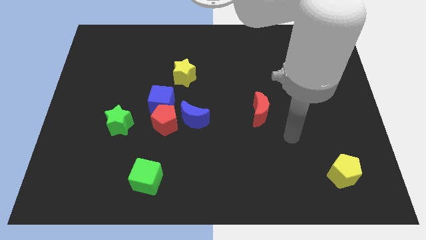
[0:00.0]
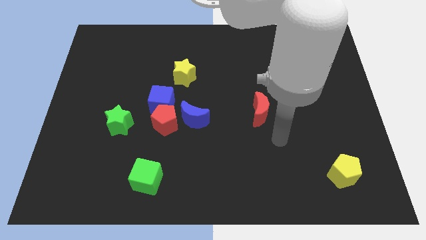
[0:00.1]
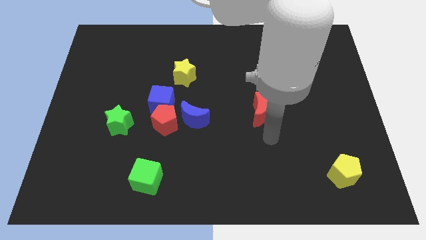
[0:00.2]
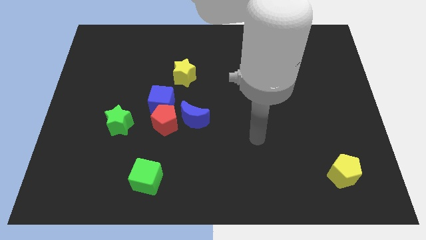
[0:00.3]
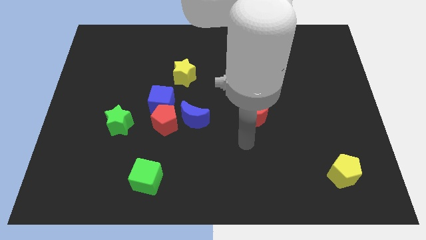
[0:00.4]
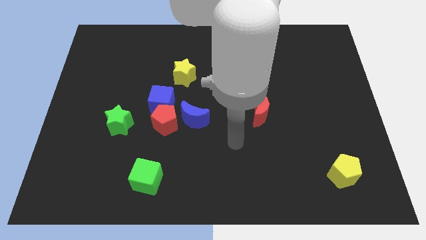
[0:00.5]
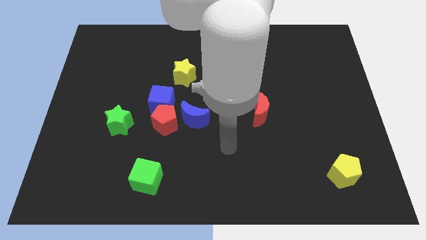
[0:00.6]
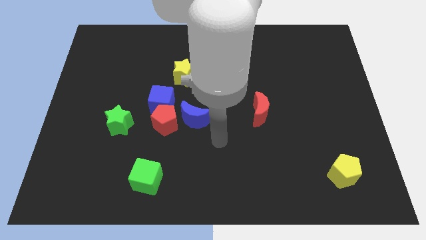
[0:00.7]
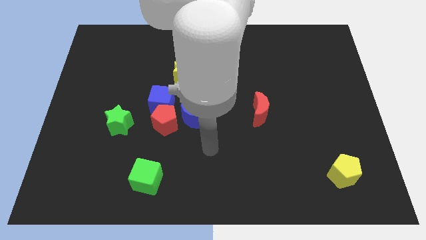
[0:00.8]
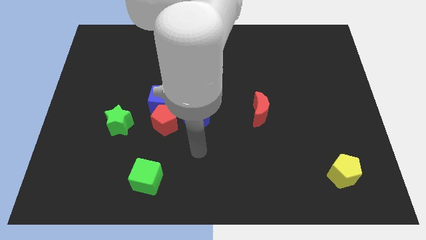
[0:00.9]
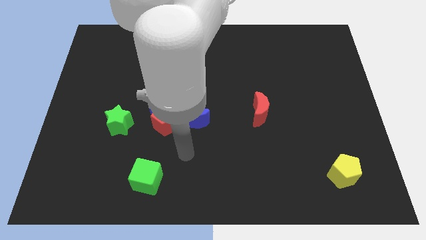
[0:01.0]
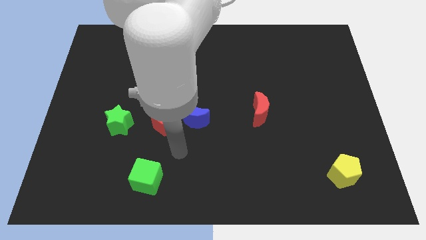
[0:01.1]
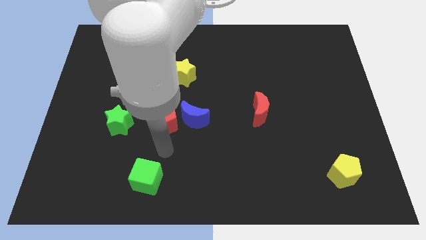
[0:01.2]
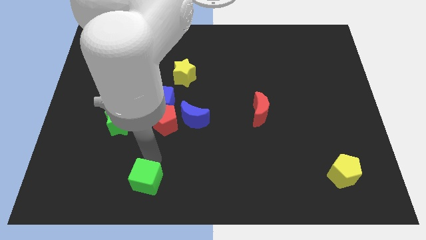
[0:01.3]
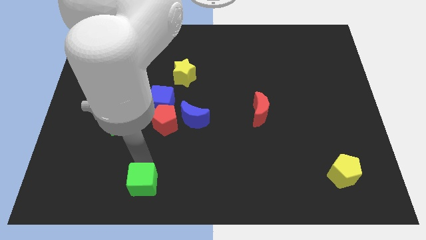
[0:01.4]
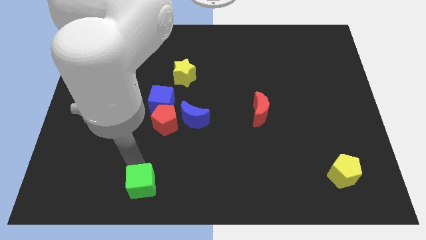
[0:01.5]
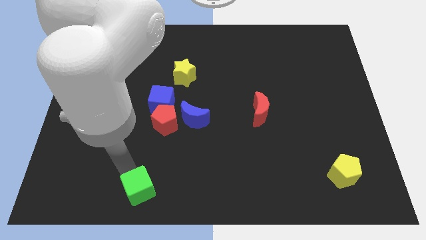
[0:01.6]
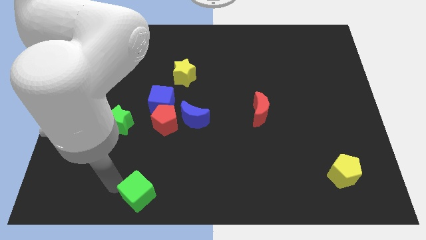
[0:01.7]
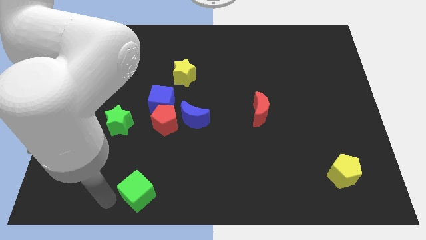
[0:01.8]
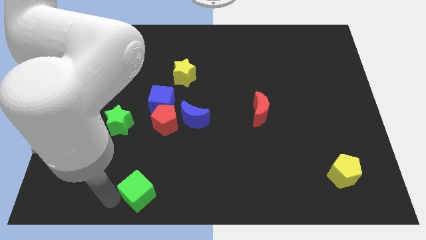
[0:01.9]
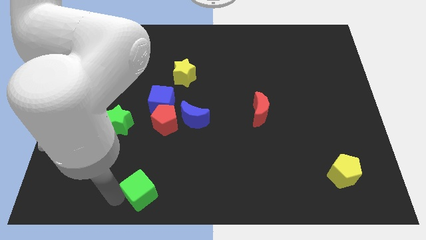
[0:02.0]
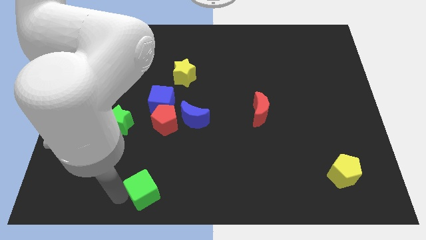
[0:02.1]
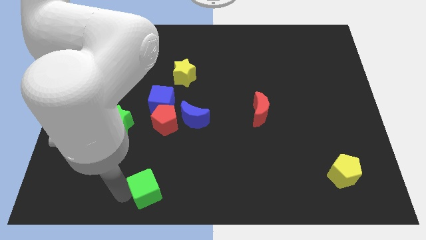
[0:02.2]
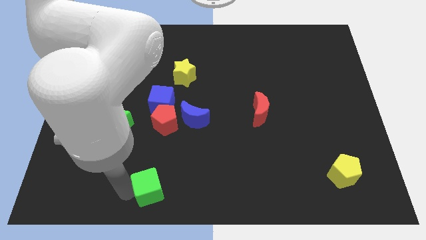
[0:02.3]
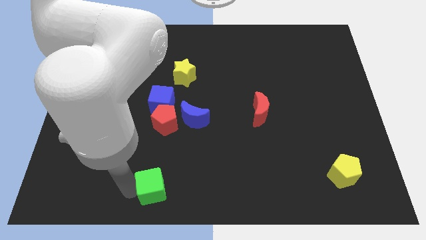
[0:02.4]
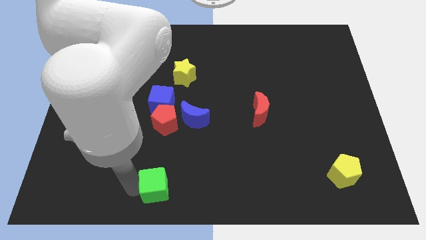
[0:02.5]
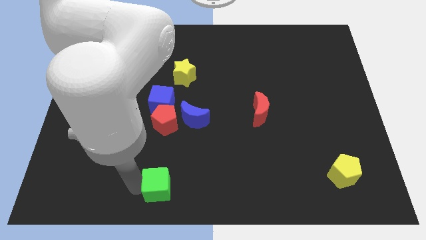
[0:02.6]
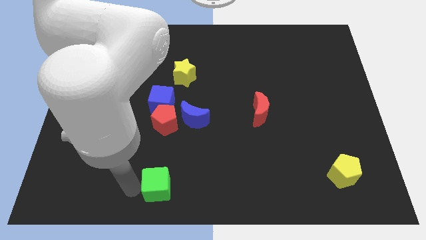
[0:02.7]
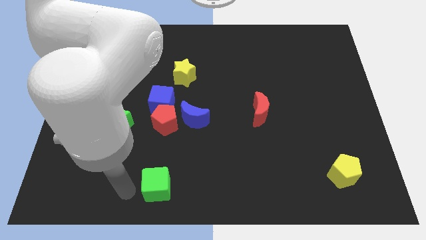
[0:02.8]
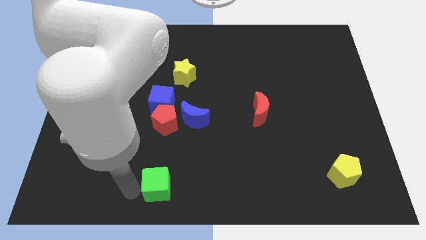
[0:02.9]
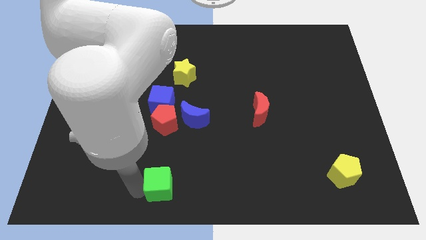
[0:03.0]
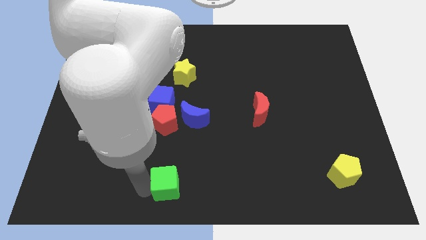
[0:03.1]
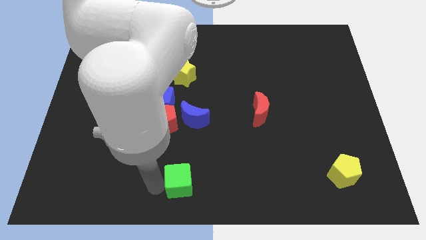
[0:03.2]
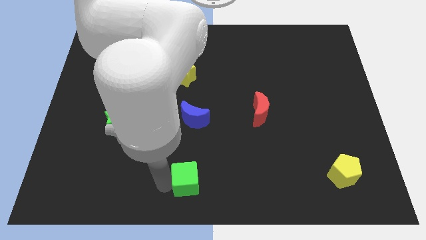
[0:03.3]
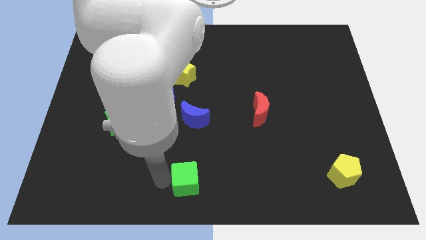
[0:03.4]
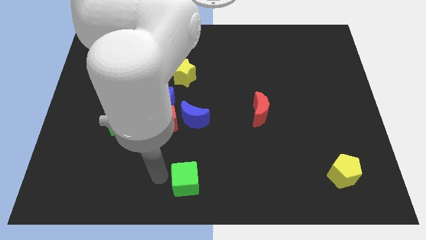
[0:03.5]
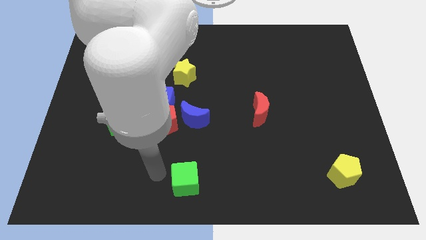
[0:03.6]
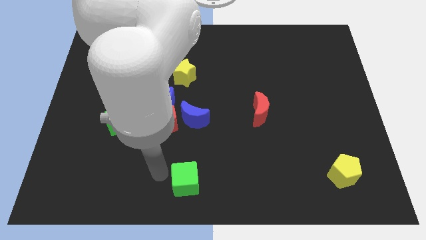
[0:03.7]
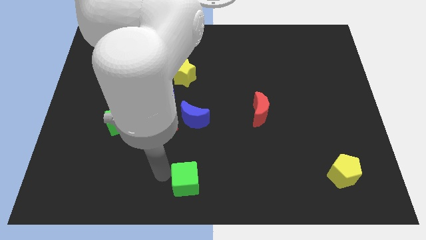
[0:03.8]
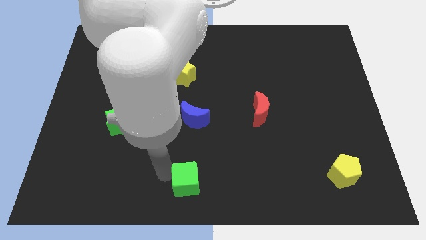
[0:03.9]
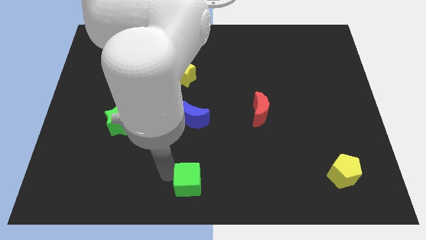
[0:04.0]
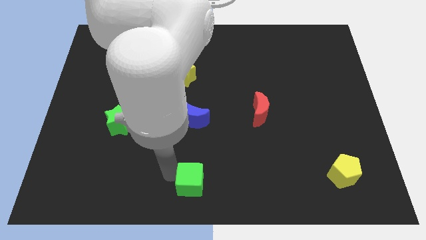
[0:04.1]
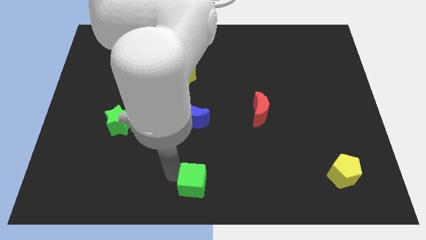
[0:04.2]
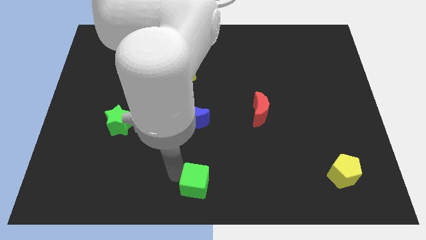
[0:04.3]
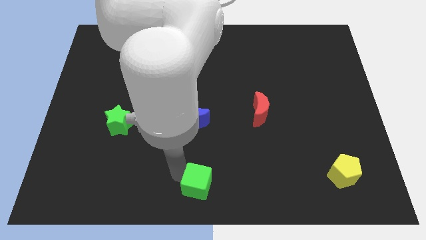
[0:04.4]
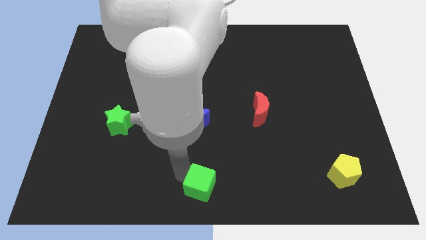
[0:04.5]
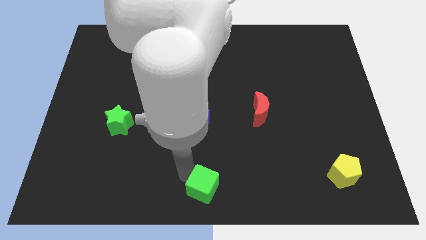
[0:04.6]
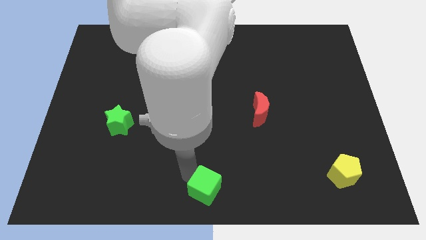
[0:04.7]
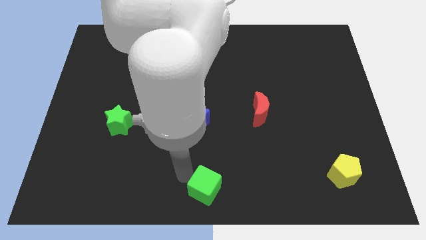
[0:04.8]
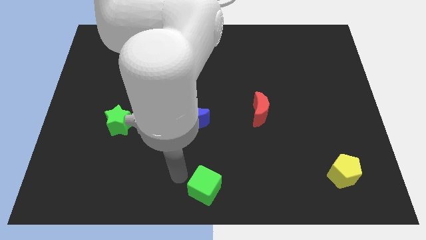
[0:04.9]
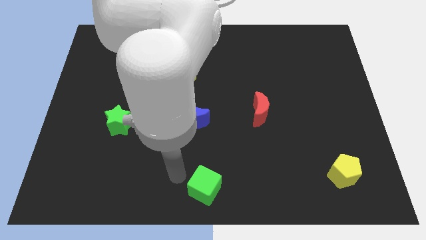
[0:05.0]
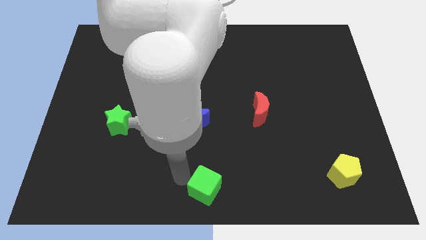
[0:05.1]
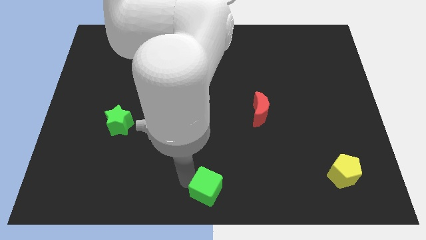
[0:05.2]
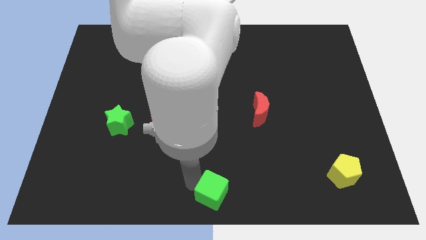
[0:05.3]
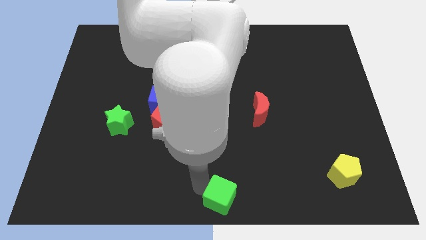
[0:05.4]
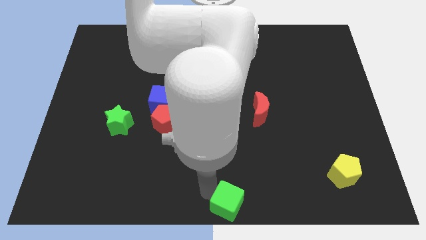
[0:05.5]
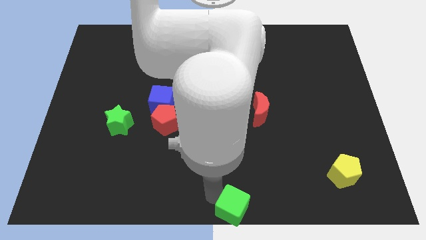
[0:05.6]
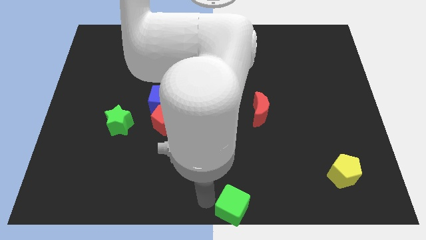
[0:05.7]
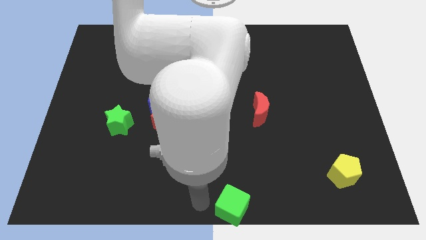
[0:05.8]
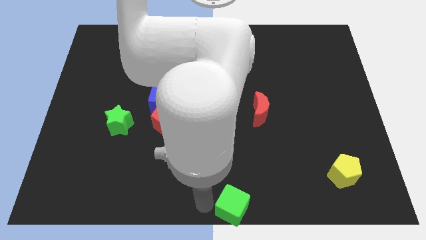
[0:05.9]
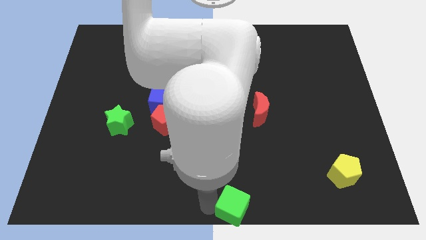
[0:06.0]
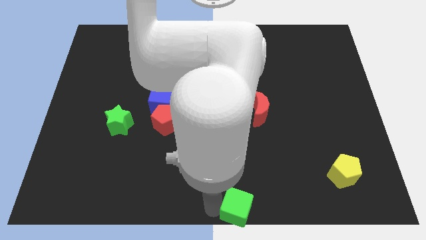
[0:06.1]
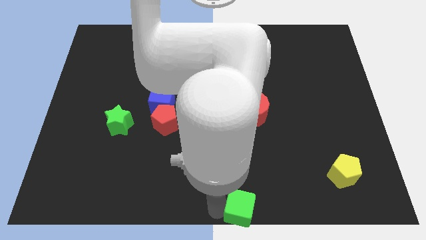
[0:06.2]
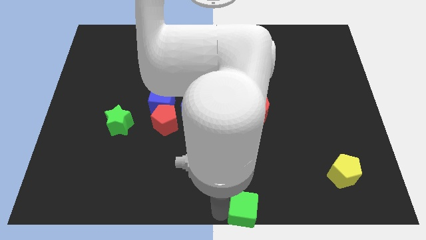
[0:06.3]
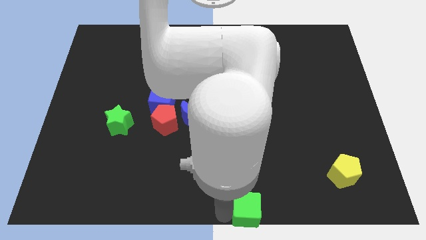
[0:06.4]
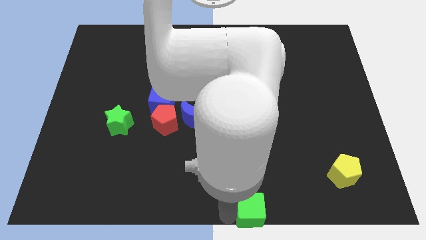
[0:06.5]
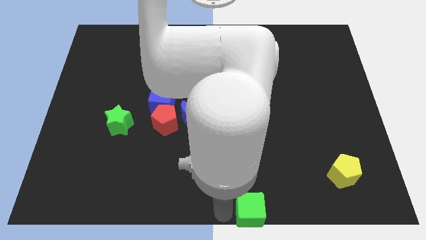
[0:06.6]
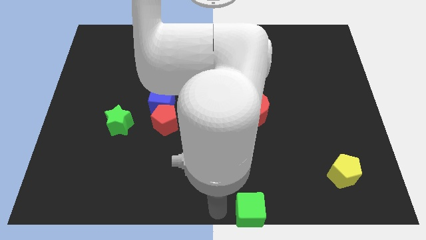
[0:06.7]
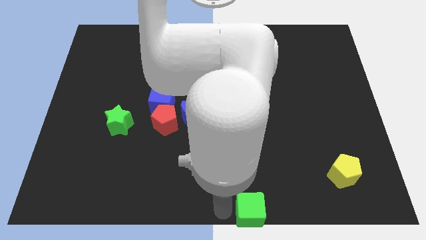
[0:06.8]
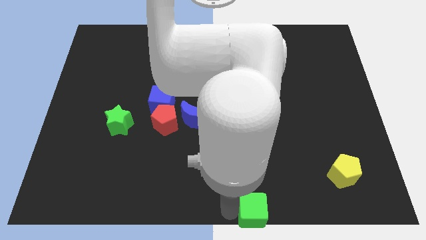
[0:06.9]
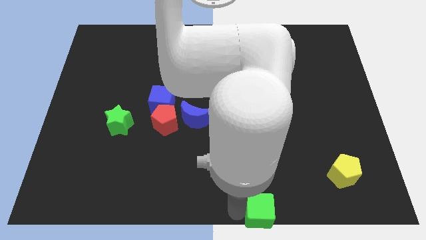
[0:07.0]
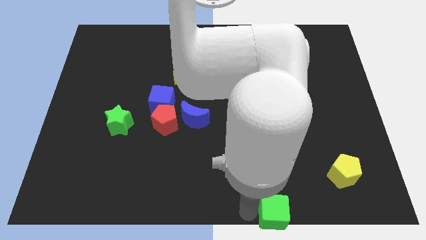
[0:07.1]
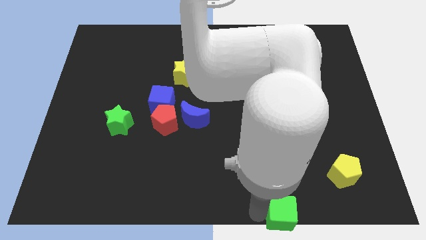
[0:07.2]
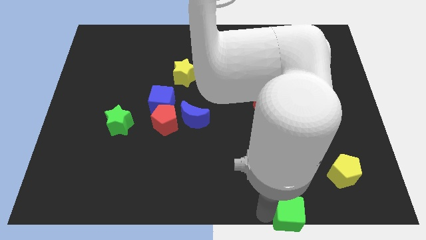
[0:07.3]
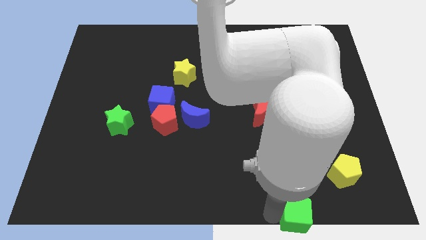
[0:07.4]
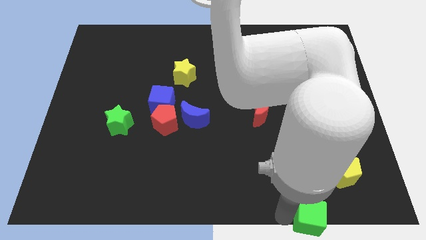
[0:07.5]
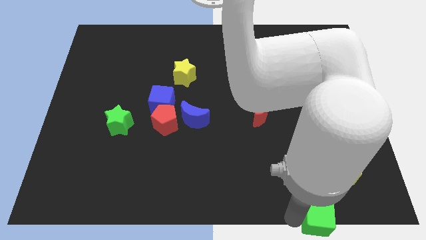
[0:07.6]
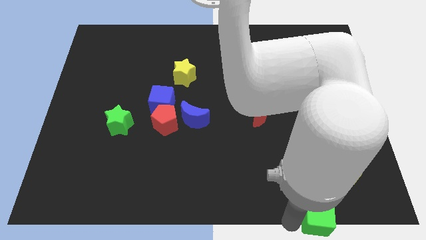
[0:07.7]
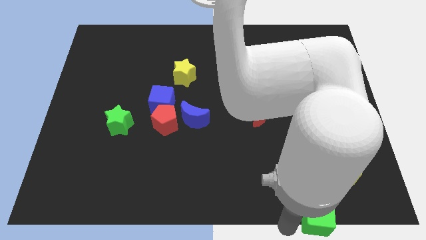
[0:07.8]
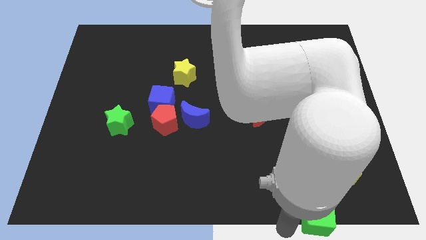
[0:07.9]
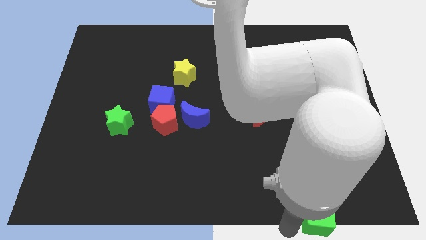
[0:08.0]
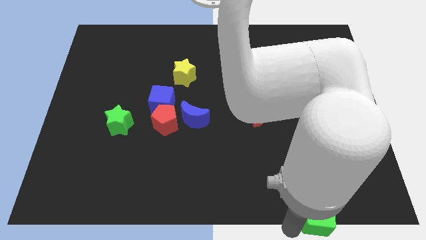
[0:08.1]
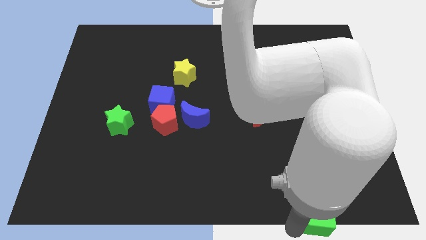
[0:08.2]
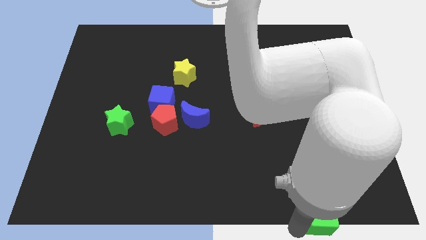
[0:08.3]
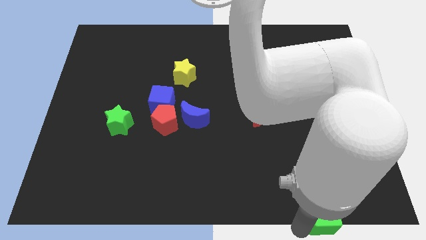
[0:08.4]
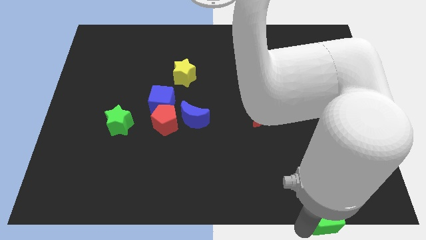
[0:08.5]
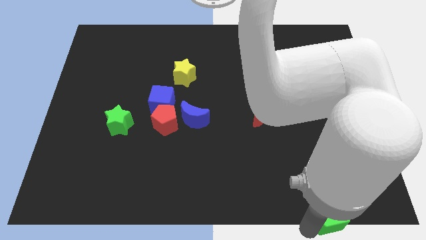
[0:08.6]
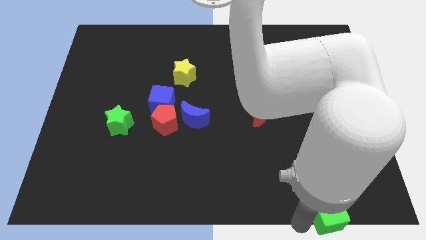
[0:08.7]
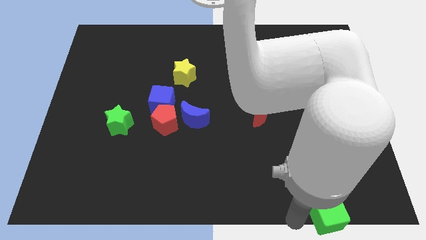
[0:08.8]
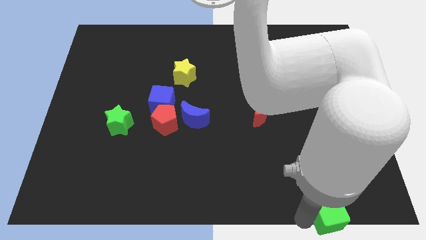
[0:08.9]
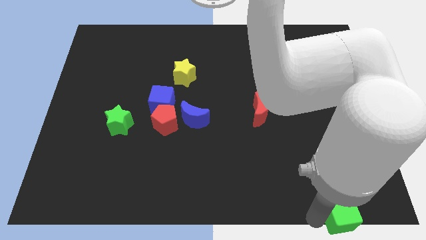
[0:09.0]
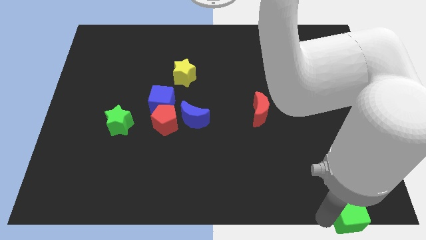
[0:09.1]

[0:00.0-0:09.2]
slide the green cube to the bottom right of the board
